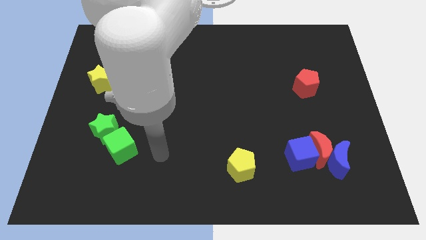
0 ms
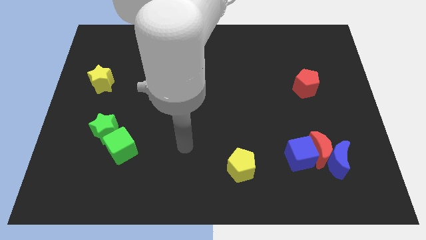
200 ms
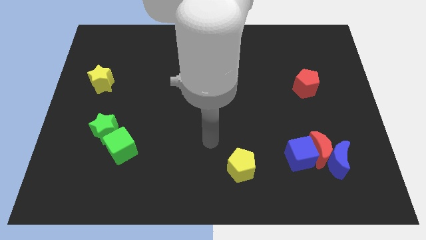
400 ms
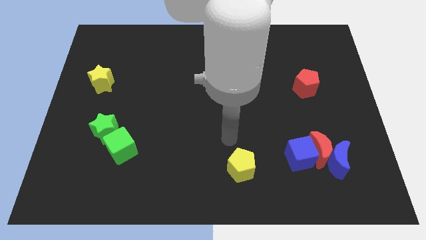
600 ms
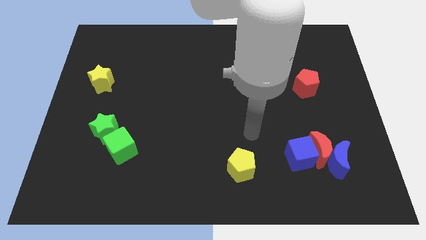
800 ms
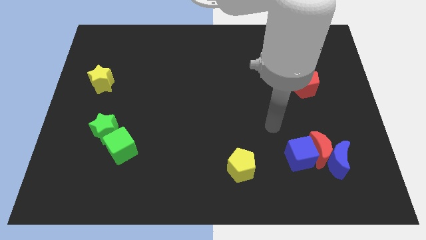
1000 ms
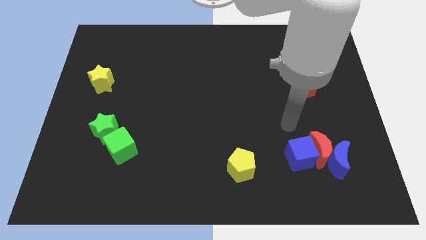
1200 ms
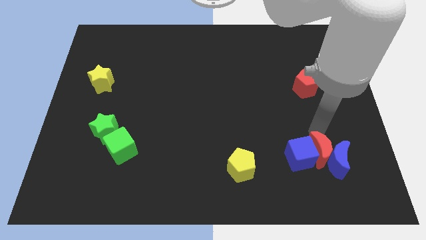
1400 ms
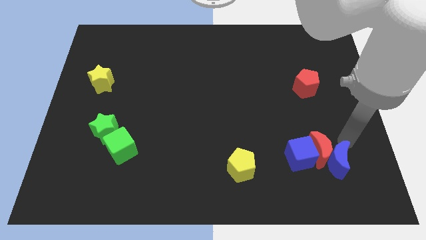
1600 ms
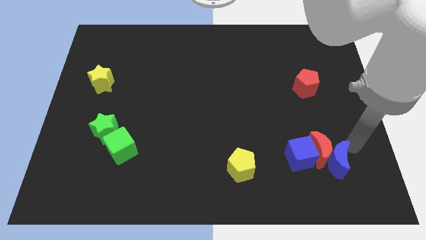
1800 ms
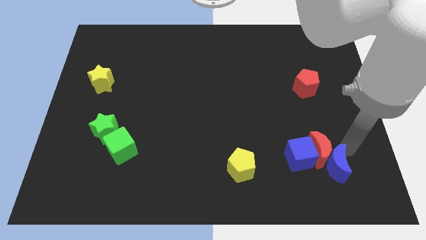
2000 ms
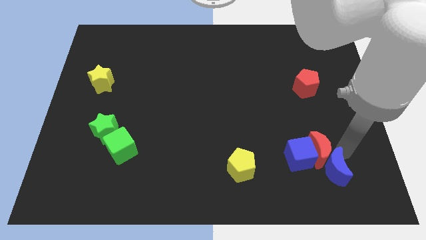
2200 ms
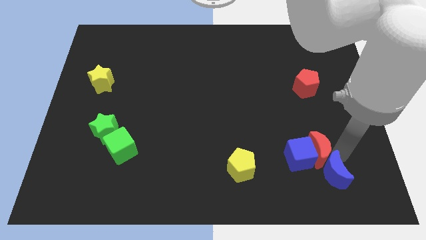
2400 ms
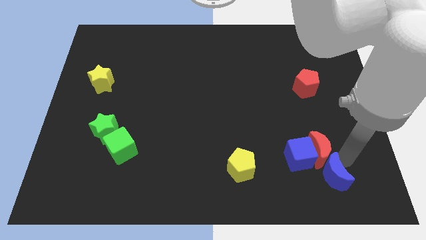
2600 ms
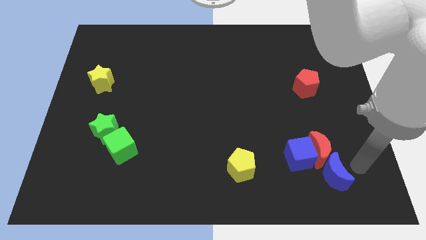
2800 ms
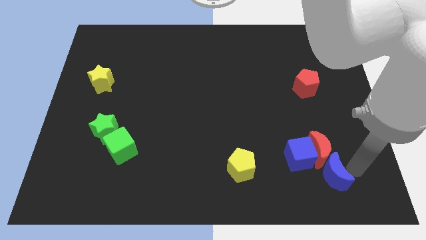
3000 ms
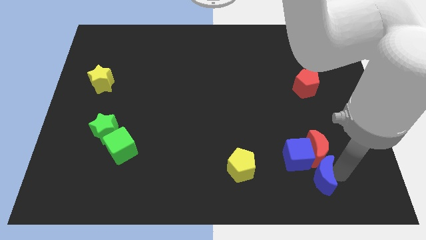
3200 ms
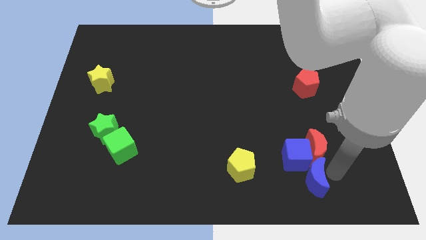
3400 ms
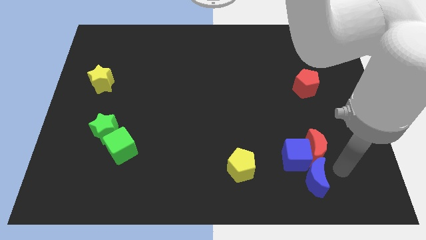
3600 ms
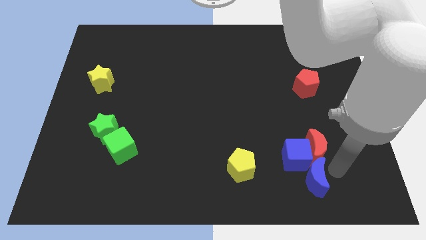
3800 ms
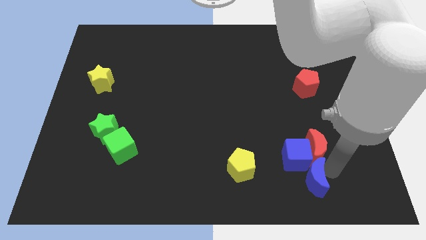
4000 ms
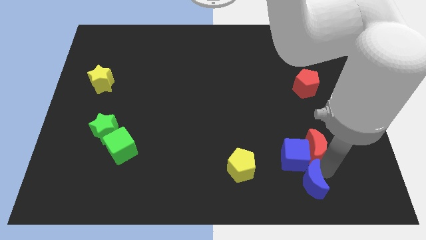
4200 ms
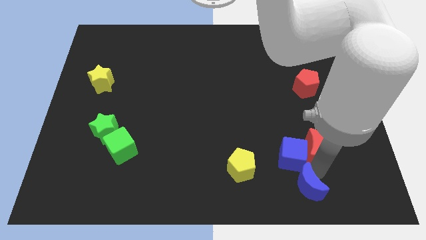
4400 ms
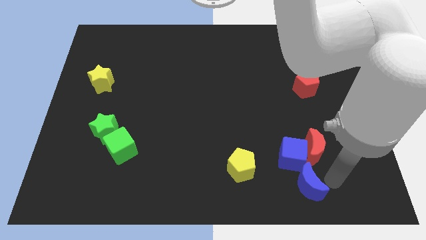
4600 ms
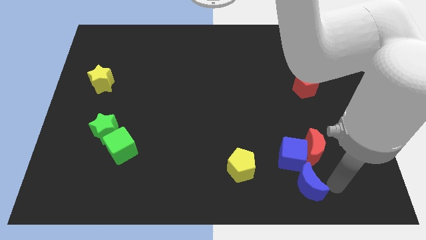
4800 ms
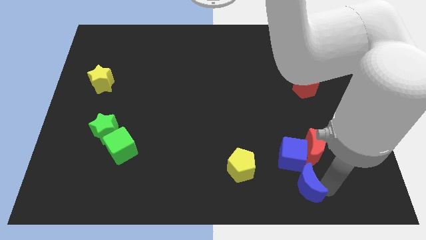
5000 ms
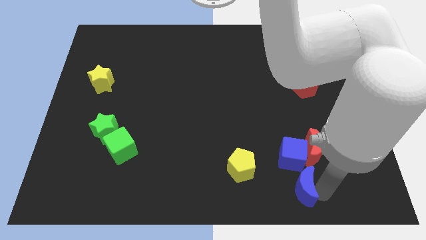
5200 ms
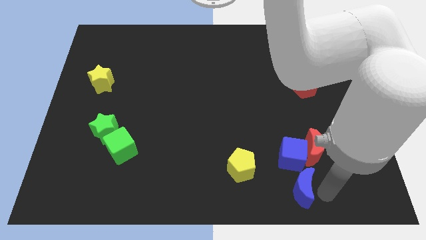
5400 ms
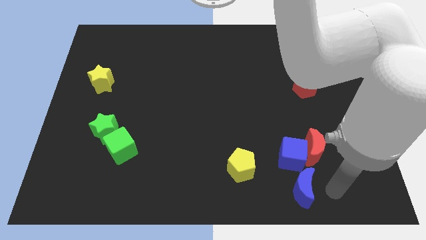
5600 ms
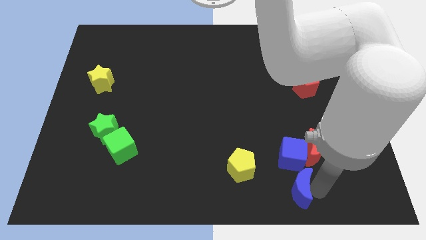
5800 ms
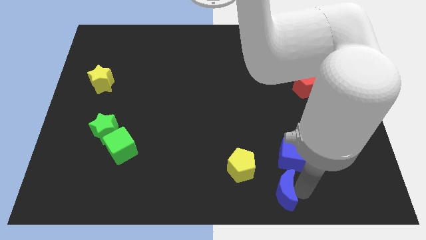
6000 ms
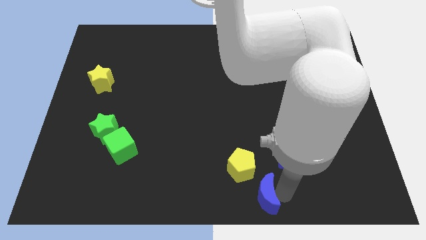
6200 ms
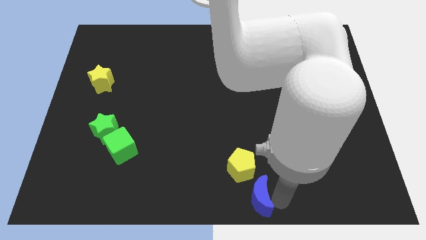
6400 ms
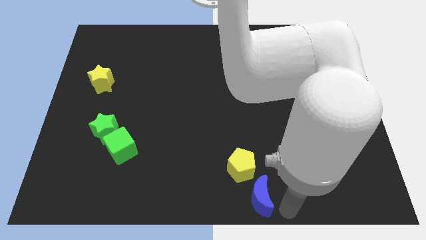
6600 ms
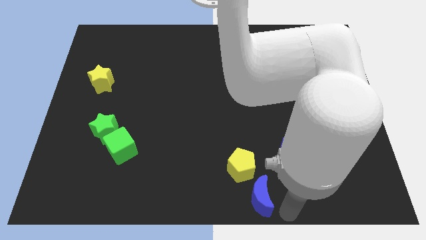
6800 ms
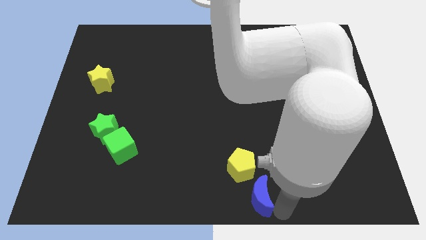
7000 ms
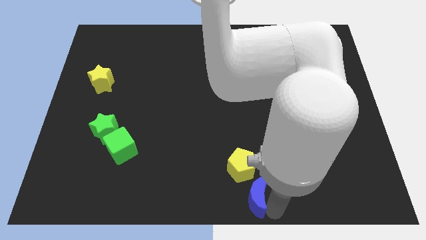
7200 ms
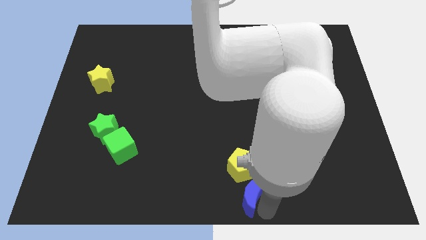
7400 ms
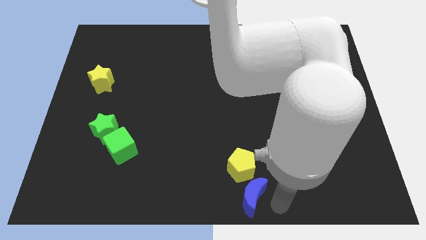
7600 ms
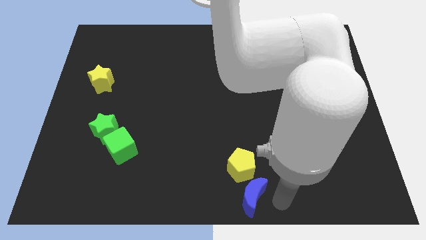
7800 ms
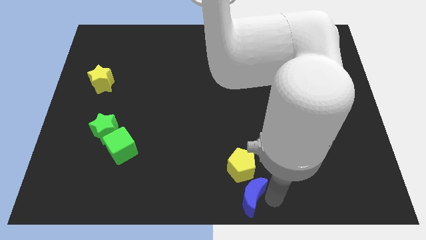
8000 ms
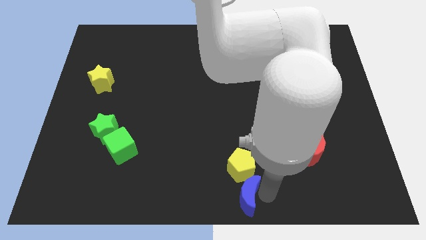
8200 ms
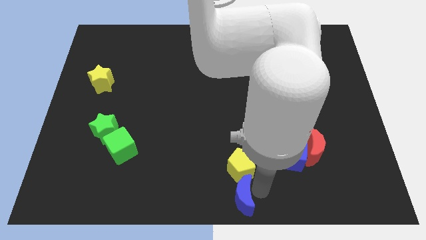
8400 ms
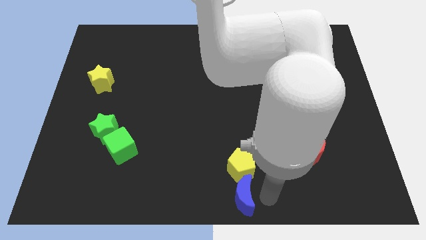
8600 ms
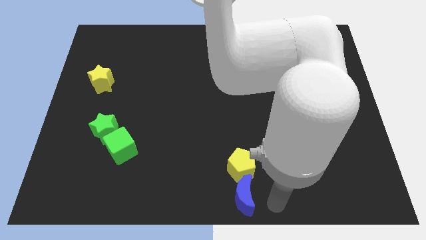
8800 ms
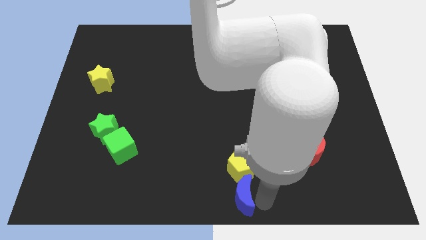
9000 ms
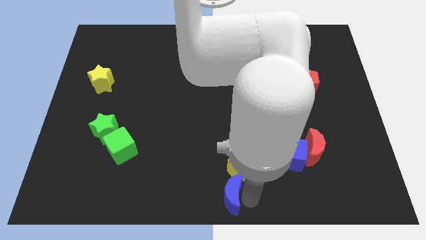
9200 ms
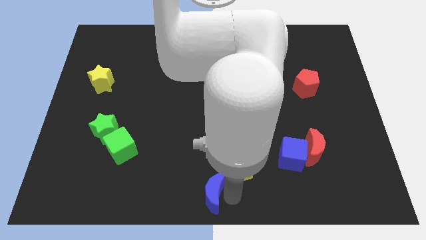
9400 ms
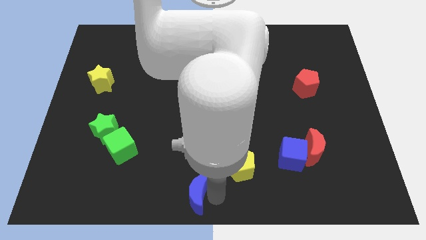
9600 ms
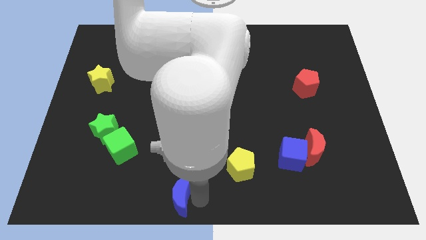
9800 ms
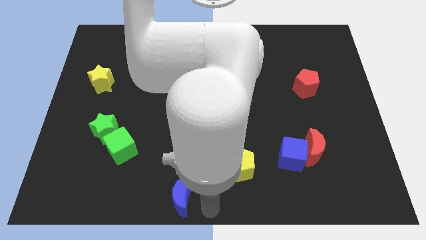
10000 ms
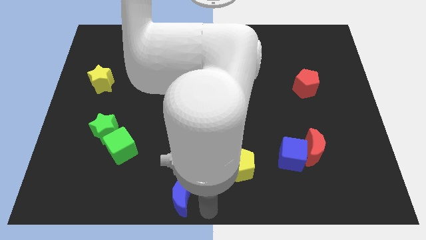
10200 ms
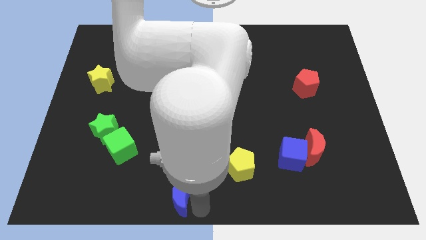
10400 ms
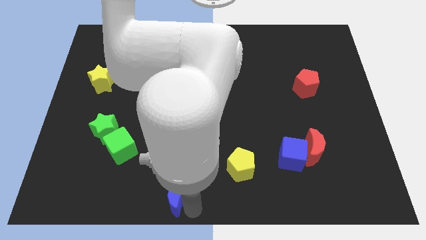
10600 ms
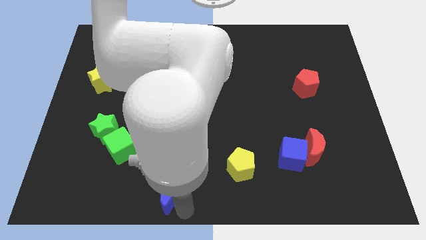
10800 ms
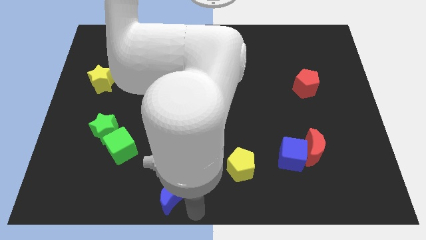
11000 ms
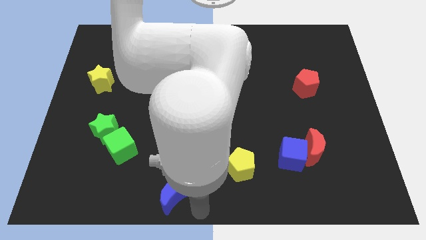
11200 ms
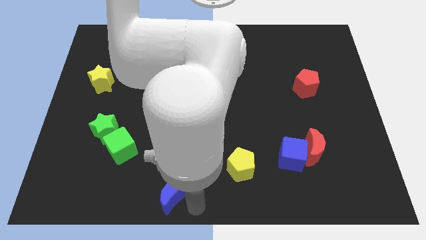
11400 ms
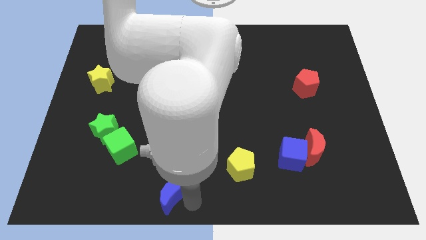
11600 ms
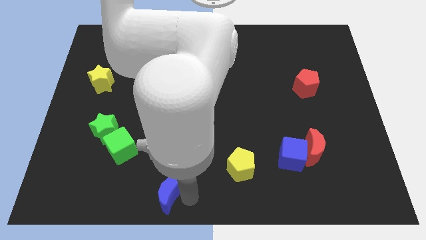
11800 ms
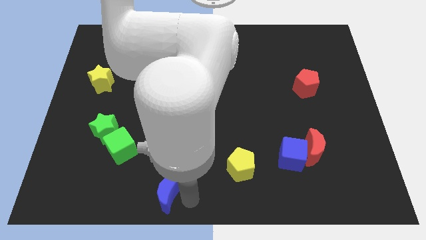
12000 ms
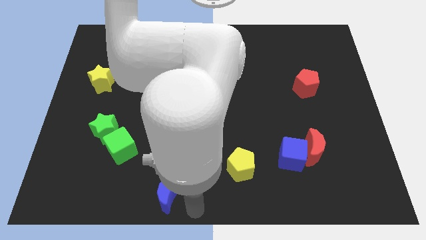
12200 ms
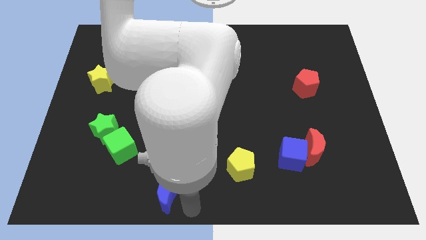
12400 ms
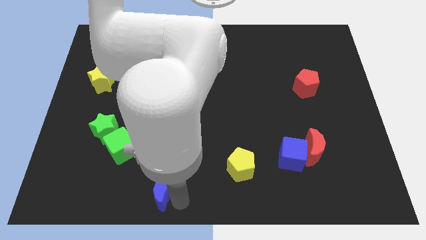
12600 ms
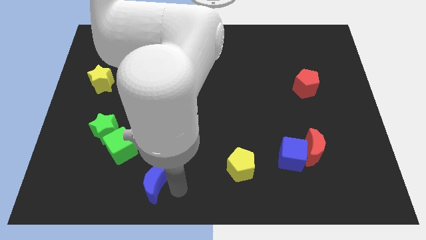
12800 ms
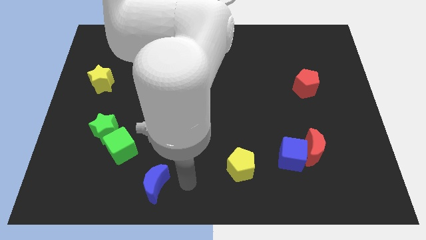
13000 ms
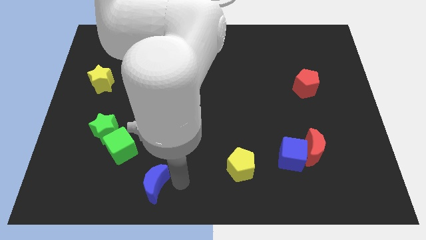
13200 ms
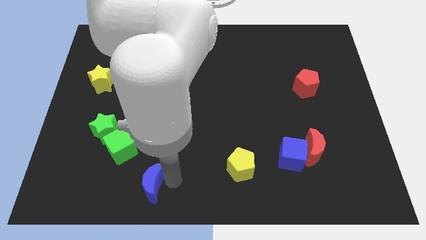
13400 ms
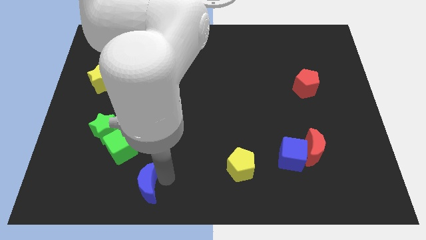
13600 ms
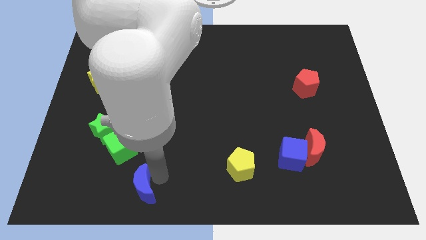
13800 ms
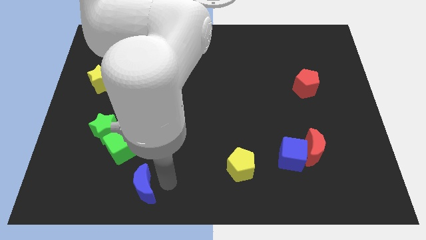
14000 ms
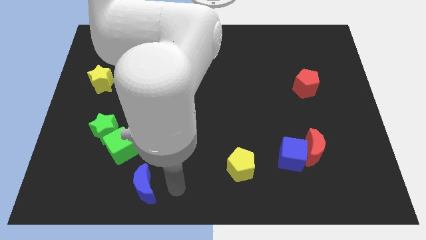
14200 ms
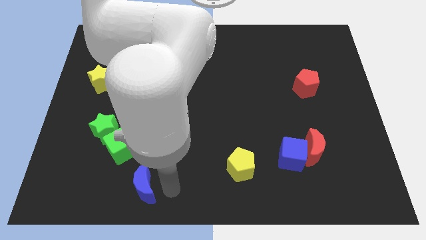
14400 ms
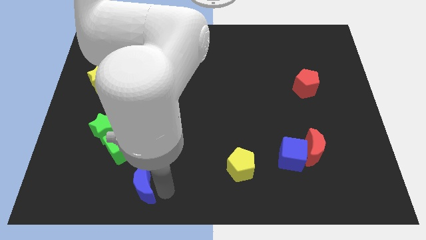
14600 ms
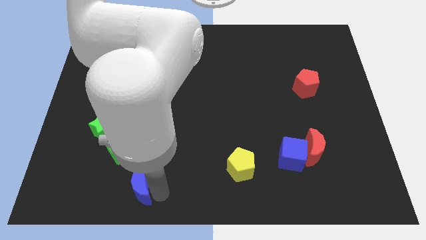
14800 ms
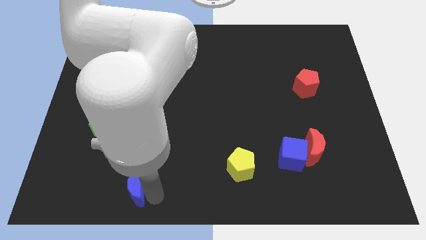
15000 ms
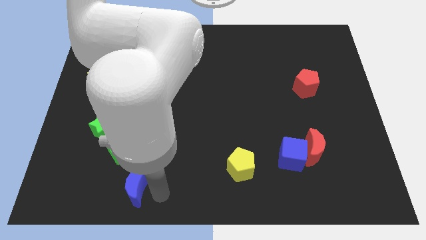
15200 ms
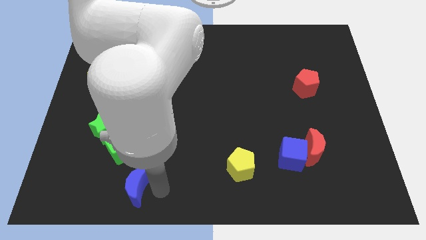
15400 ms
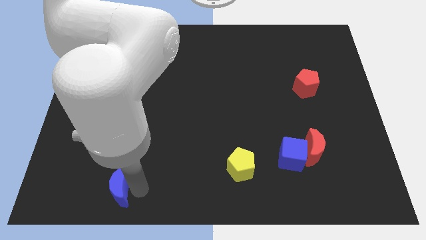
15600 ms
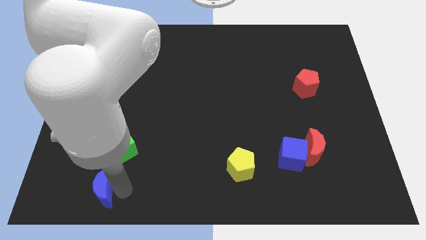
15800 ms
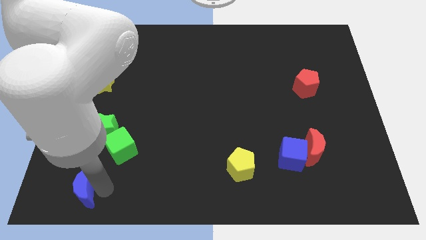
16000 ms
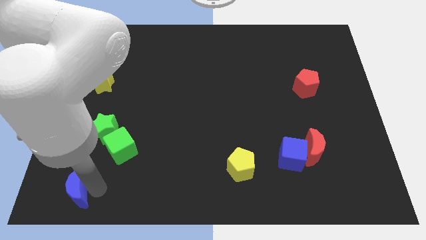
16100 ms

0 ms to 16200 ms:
push the blue moon to the lower left corner
